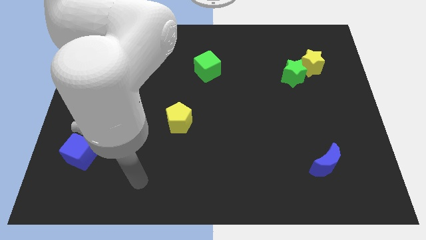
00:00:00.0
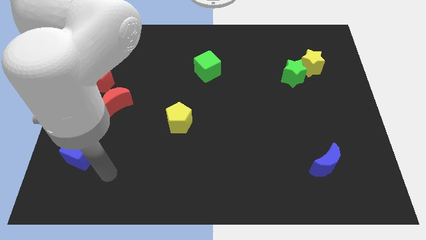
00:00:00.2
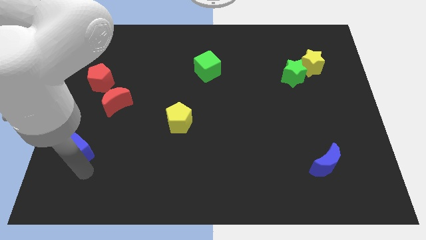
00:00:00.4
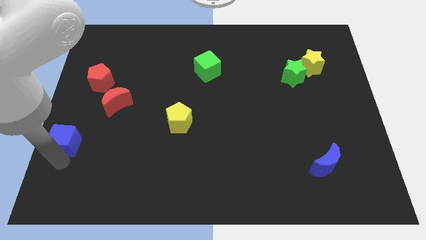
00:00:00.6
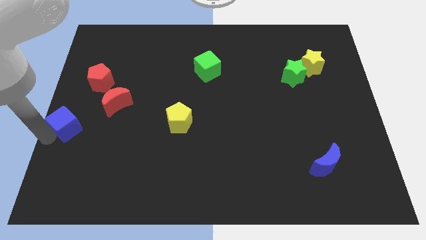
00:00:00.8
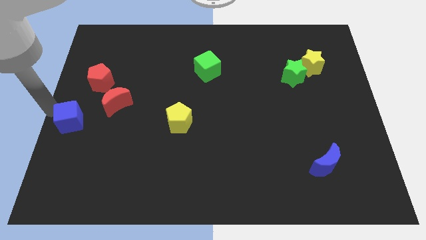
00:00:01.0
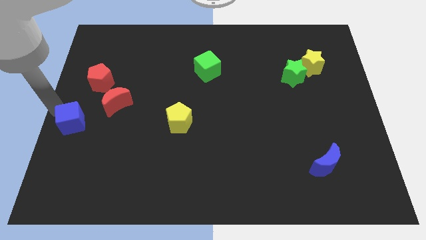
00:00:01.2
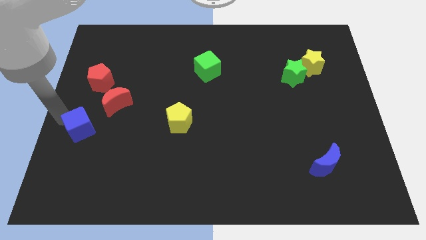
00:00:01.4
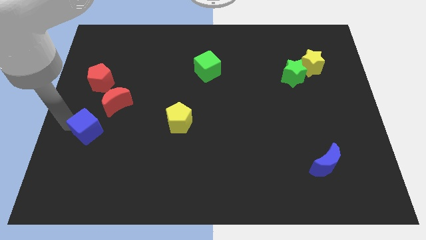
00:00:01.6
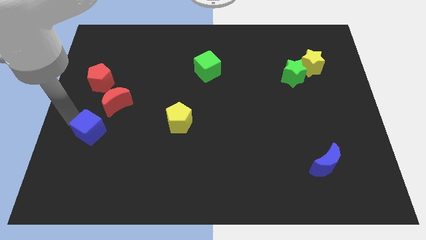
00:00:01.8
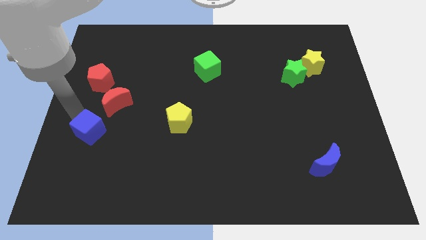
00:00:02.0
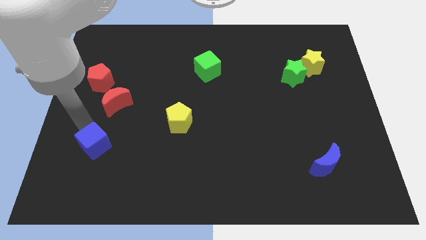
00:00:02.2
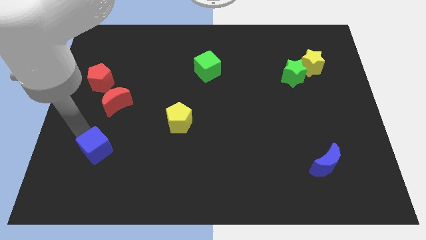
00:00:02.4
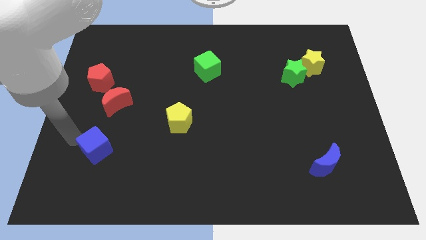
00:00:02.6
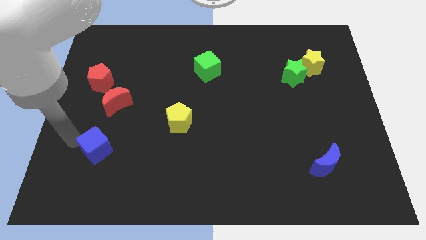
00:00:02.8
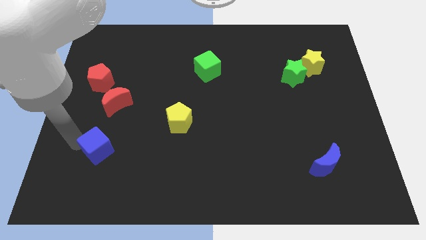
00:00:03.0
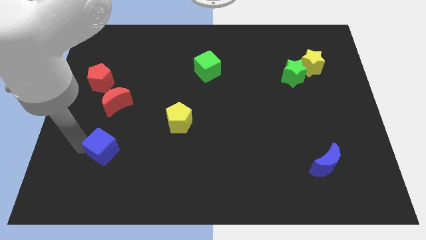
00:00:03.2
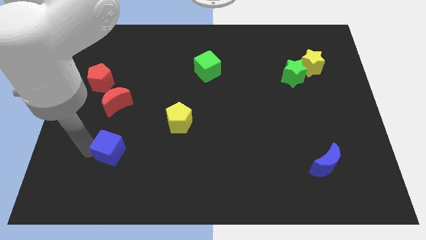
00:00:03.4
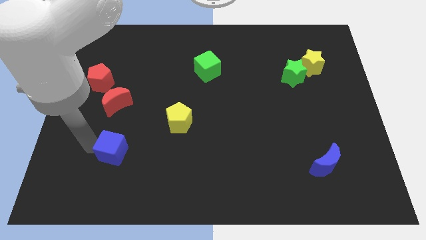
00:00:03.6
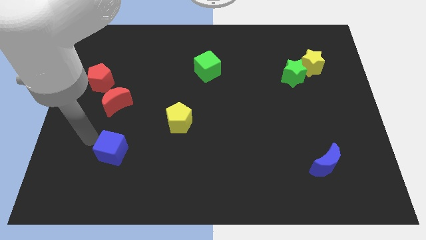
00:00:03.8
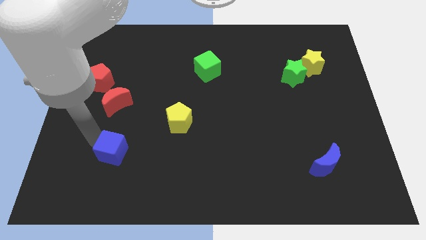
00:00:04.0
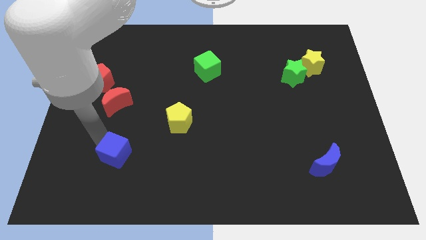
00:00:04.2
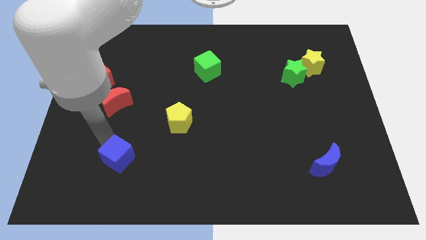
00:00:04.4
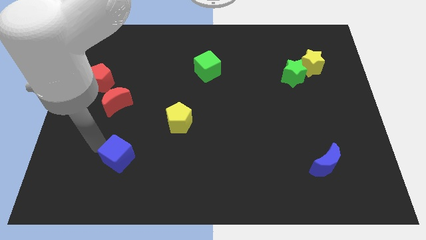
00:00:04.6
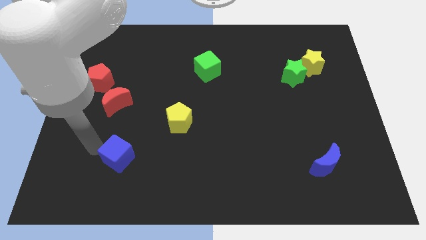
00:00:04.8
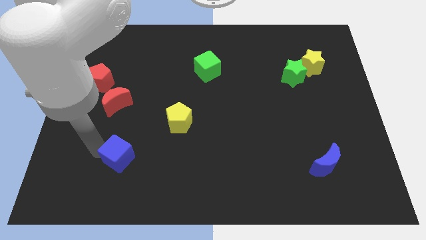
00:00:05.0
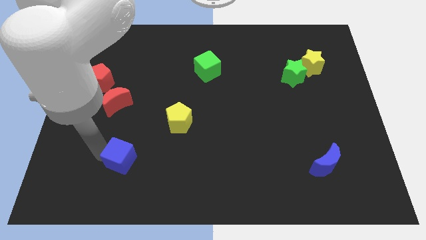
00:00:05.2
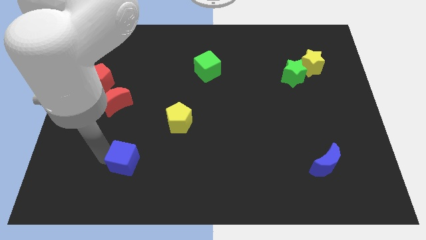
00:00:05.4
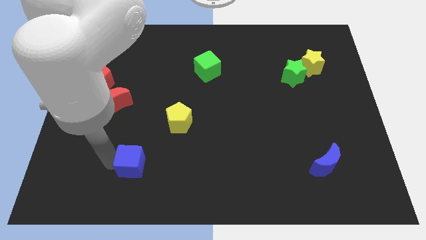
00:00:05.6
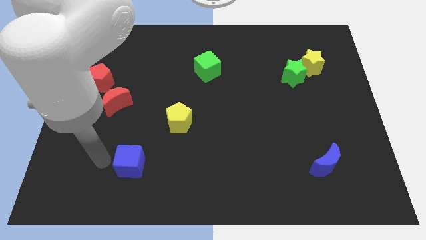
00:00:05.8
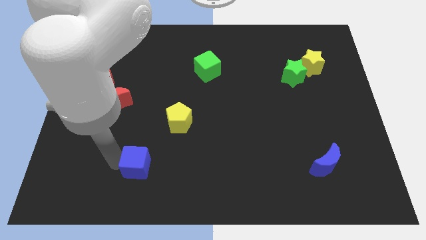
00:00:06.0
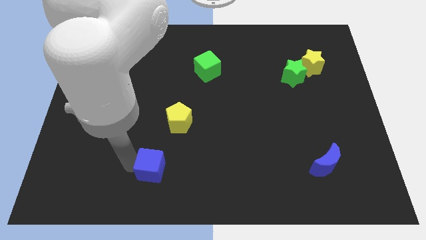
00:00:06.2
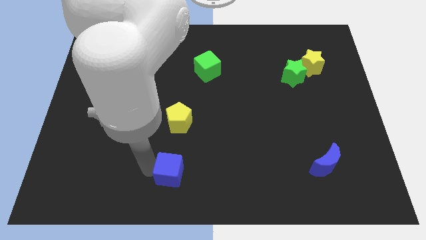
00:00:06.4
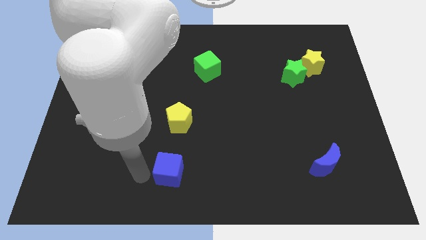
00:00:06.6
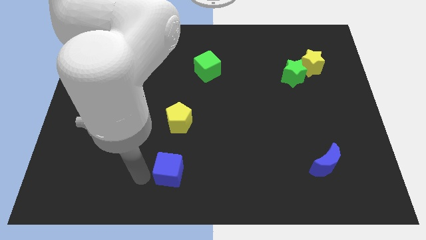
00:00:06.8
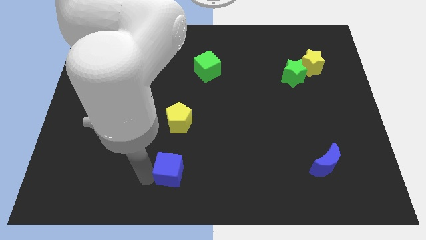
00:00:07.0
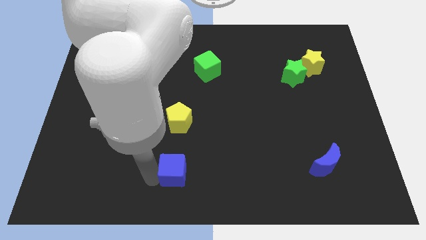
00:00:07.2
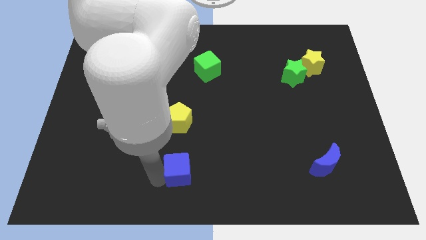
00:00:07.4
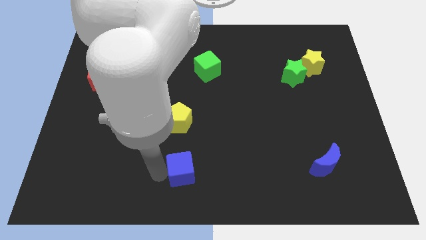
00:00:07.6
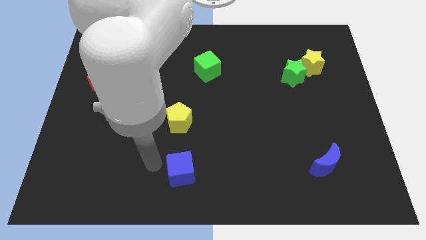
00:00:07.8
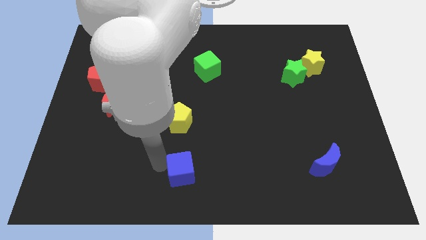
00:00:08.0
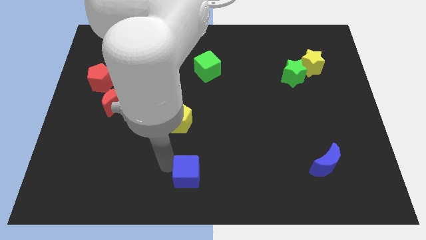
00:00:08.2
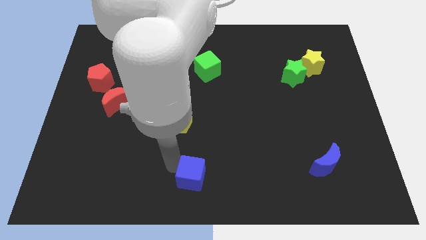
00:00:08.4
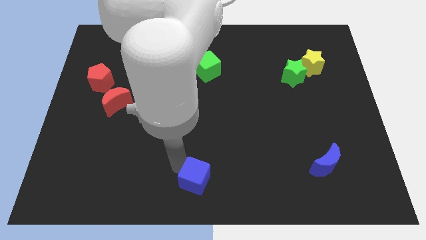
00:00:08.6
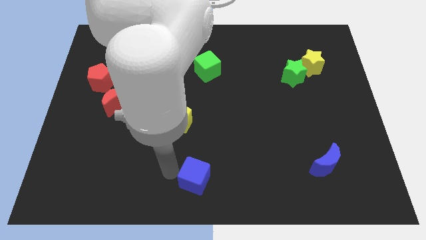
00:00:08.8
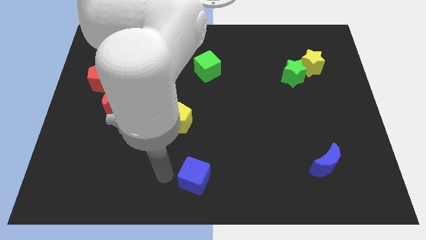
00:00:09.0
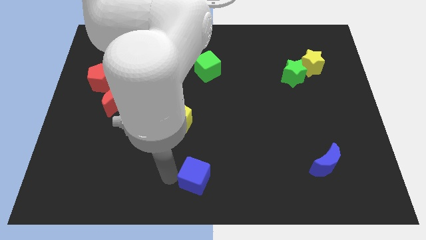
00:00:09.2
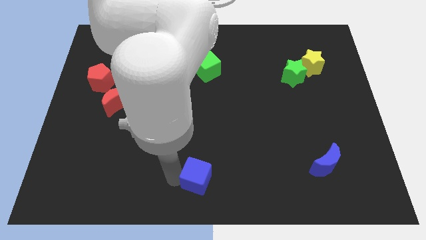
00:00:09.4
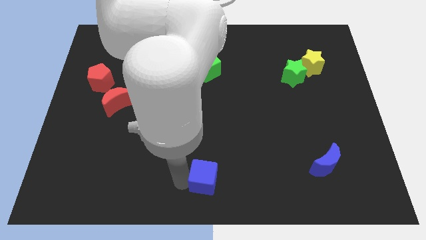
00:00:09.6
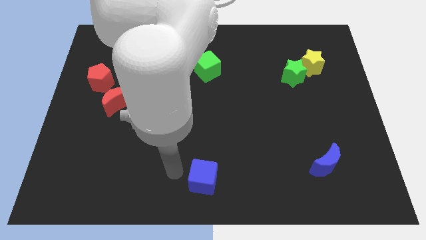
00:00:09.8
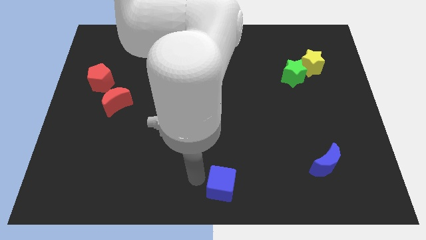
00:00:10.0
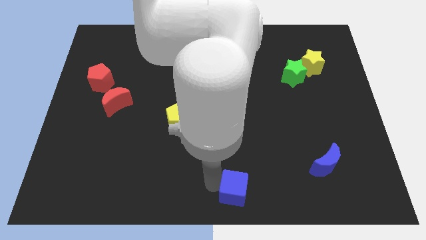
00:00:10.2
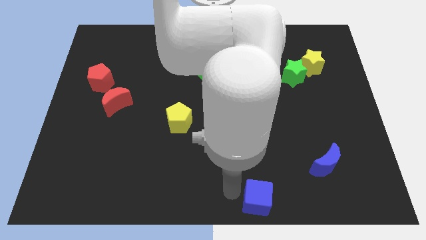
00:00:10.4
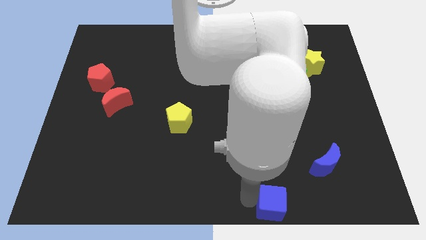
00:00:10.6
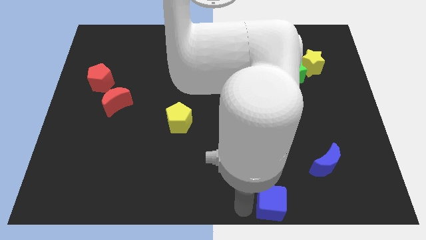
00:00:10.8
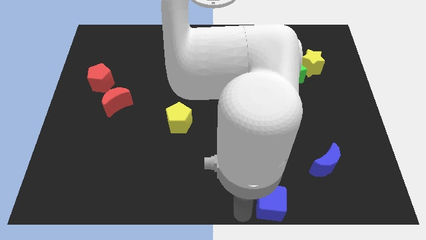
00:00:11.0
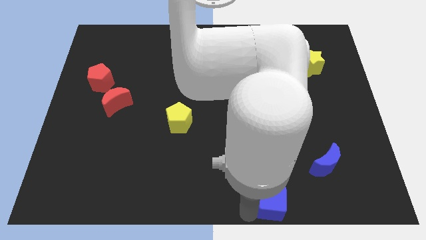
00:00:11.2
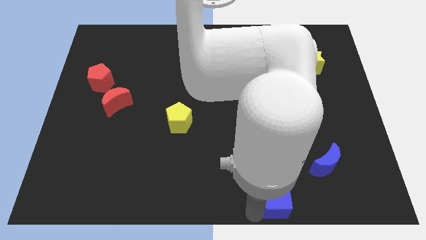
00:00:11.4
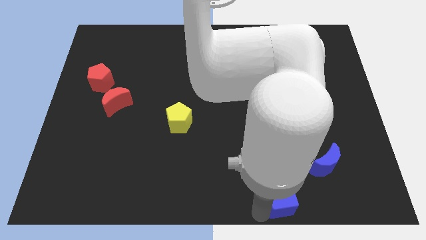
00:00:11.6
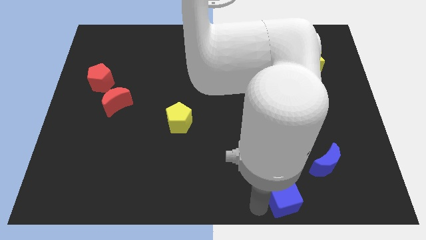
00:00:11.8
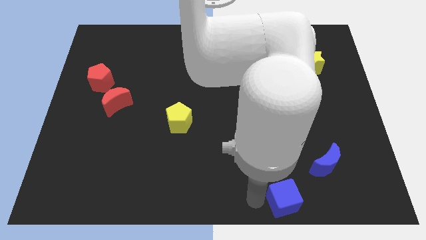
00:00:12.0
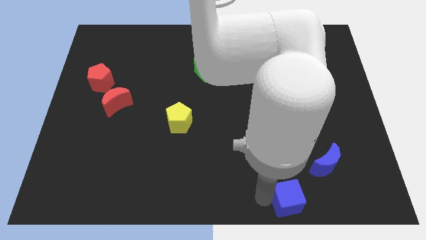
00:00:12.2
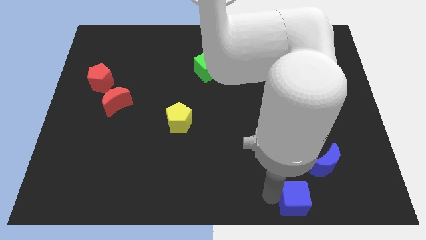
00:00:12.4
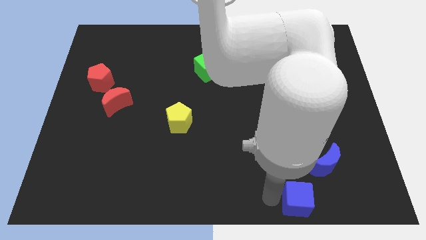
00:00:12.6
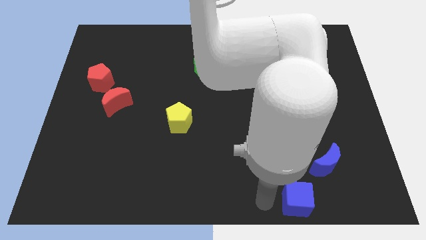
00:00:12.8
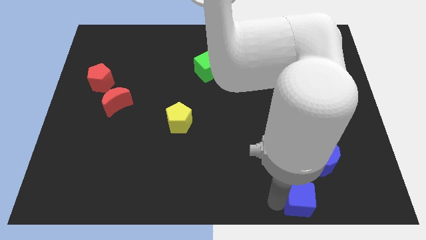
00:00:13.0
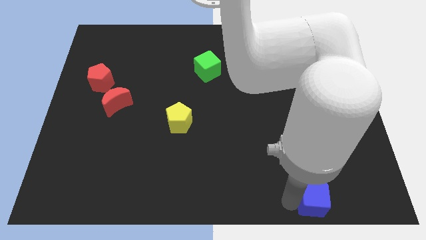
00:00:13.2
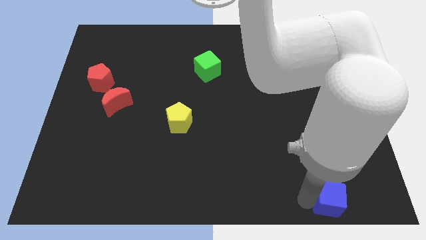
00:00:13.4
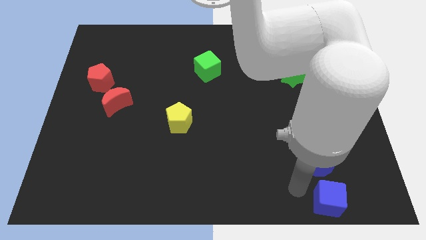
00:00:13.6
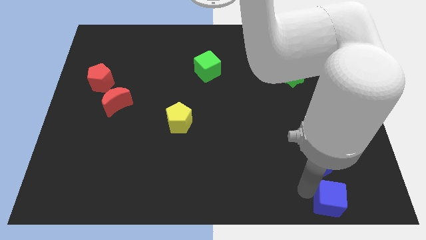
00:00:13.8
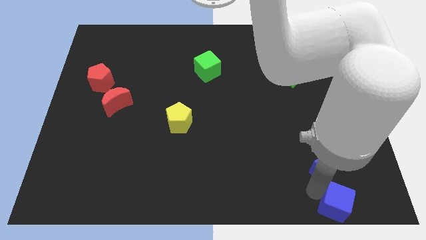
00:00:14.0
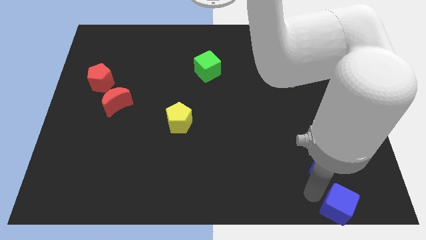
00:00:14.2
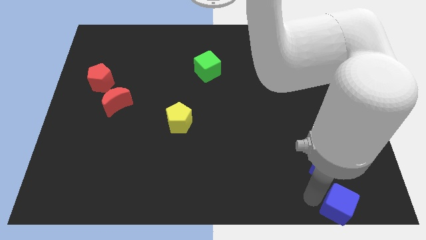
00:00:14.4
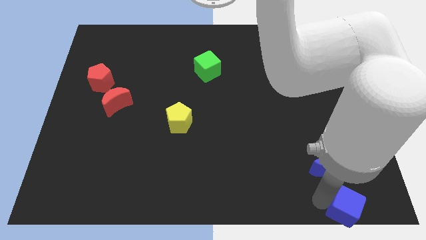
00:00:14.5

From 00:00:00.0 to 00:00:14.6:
move the blue cube to the bottom right

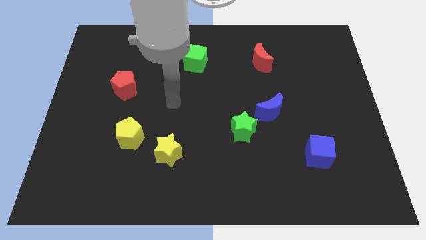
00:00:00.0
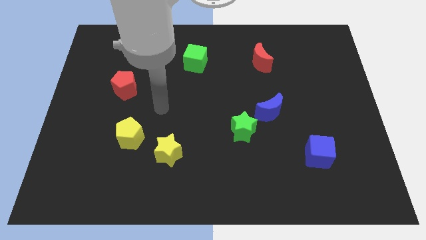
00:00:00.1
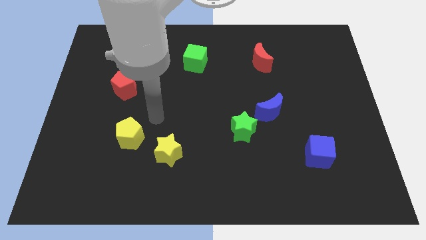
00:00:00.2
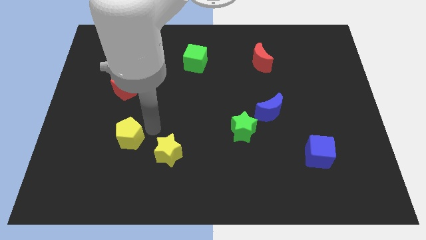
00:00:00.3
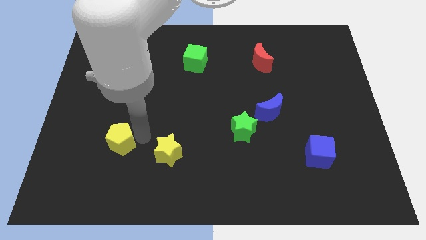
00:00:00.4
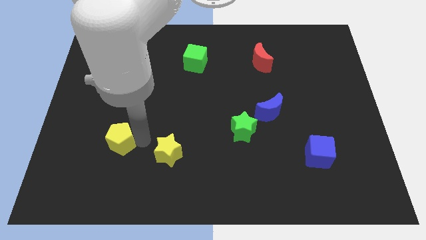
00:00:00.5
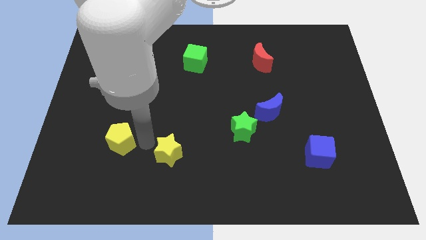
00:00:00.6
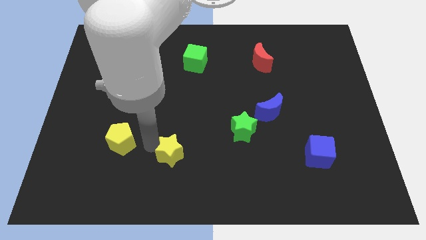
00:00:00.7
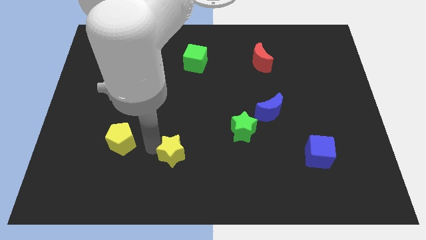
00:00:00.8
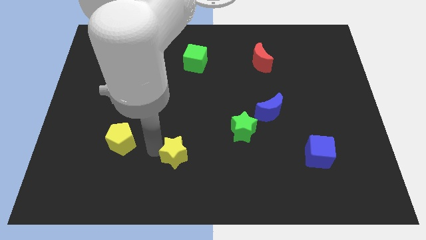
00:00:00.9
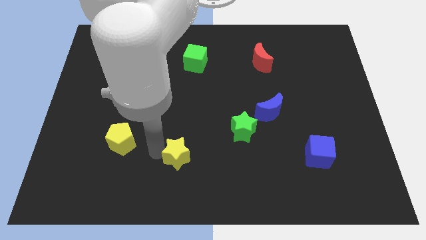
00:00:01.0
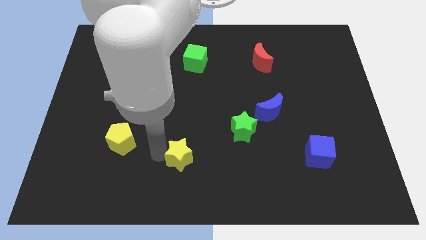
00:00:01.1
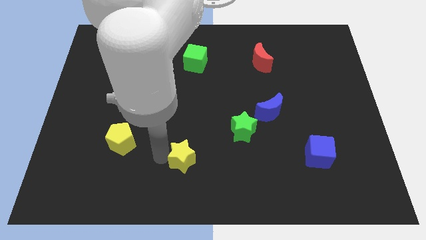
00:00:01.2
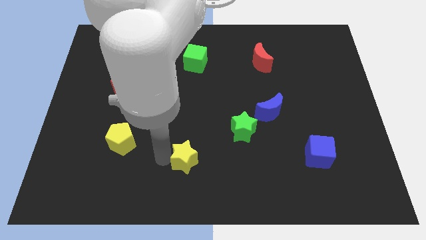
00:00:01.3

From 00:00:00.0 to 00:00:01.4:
move the yellow star to the bottom
